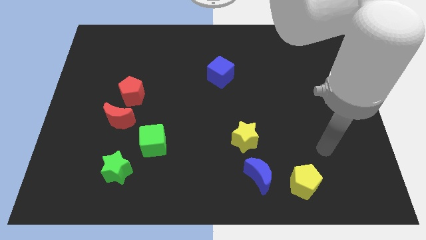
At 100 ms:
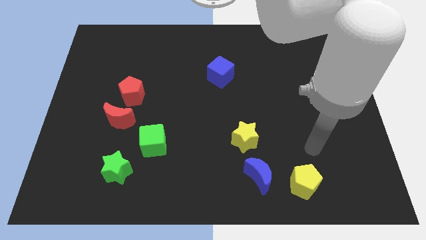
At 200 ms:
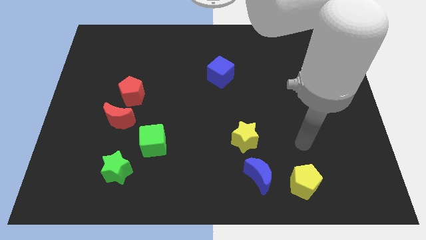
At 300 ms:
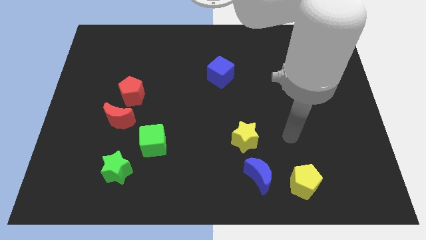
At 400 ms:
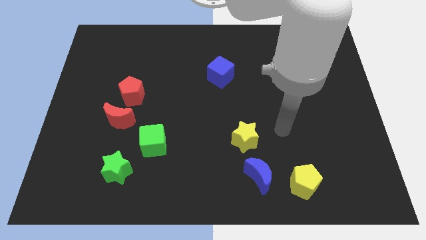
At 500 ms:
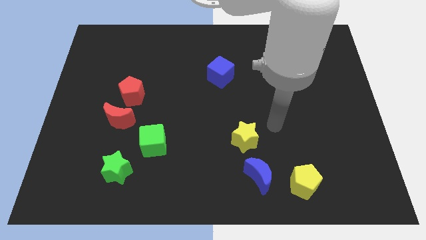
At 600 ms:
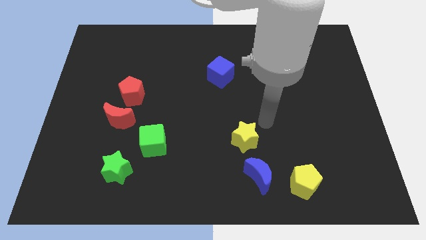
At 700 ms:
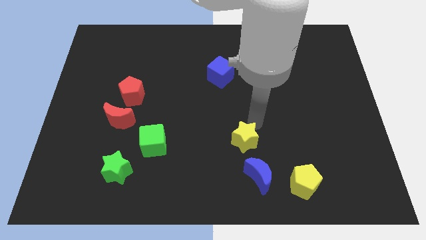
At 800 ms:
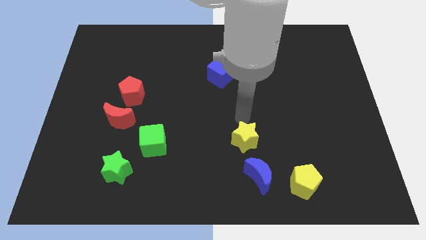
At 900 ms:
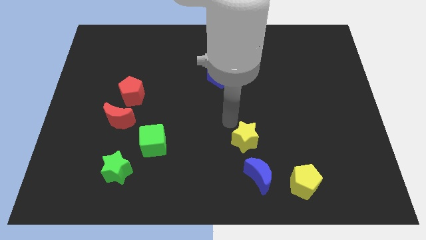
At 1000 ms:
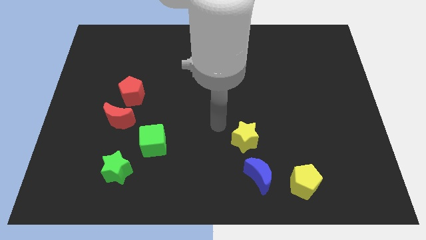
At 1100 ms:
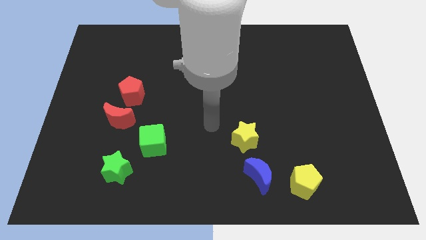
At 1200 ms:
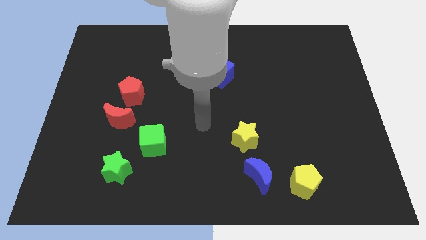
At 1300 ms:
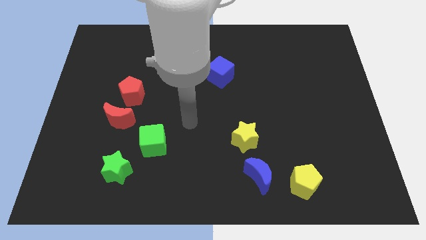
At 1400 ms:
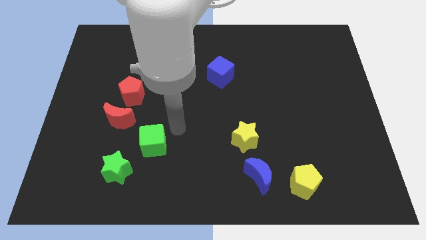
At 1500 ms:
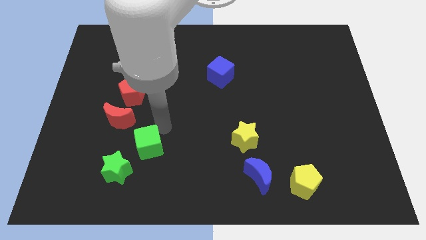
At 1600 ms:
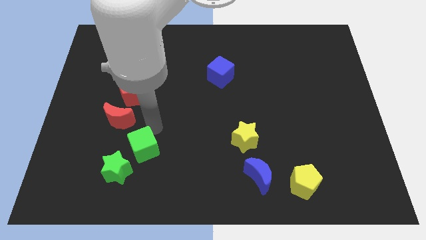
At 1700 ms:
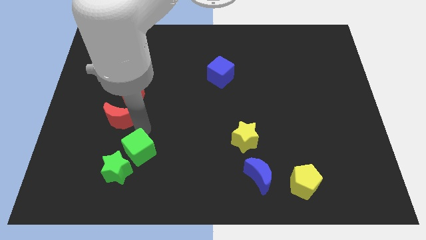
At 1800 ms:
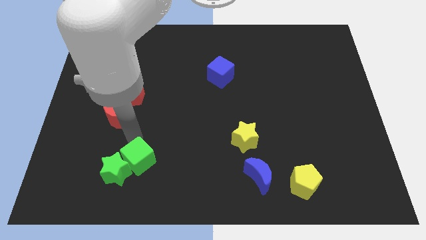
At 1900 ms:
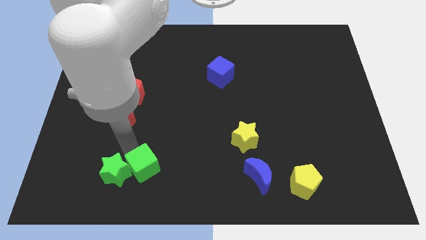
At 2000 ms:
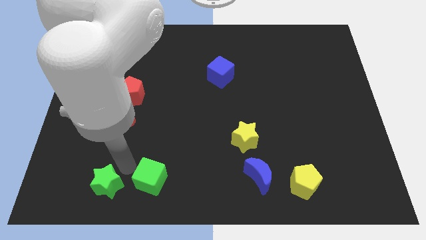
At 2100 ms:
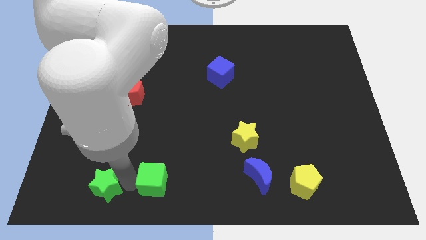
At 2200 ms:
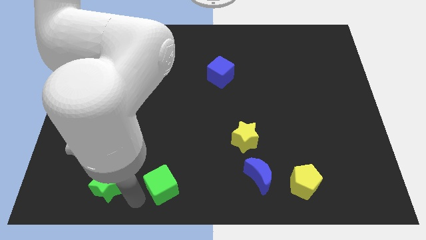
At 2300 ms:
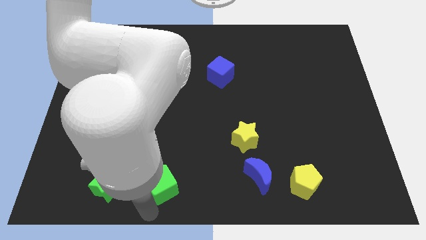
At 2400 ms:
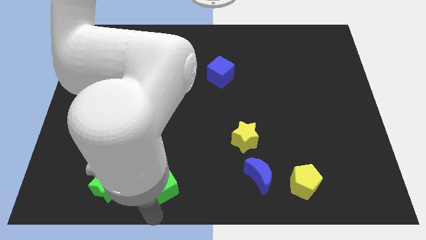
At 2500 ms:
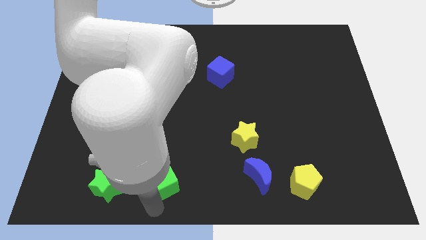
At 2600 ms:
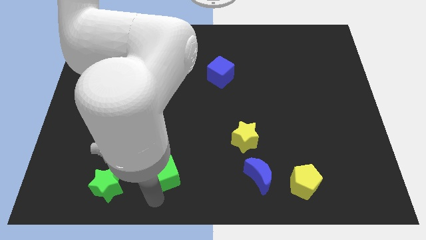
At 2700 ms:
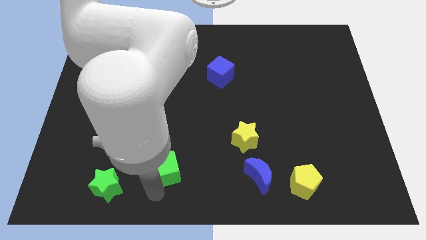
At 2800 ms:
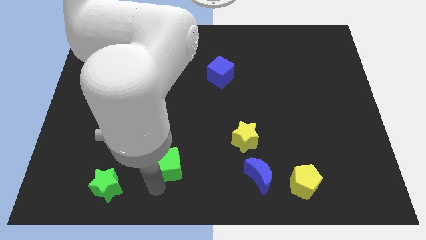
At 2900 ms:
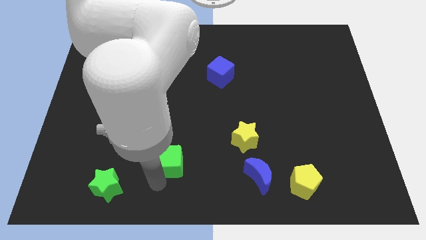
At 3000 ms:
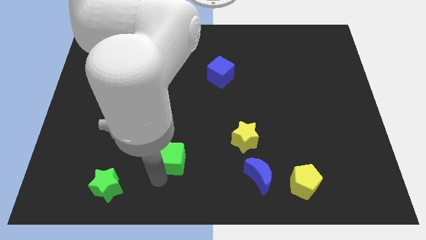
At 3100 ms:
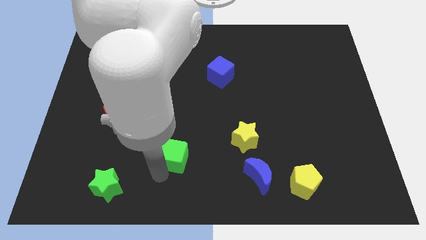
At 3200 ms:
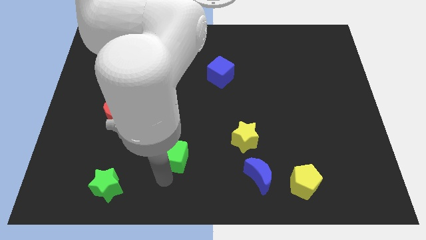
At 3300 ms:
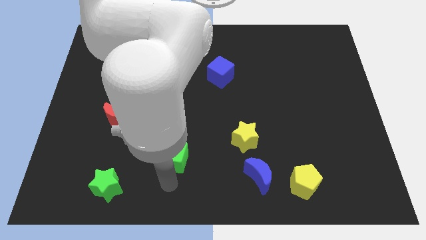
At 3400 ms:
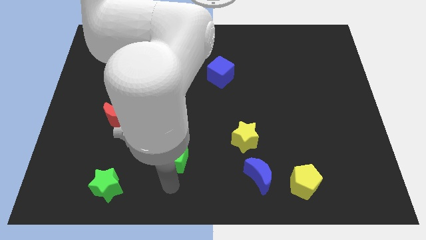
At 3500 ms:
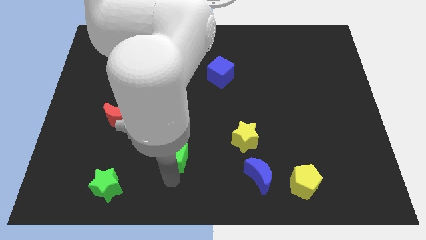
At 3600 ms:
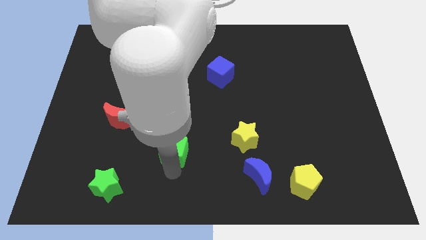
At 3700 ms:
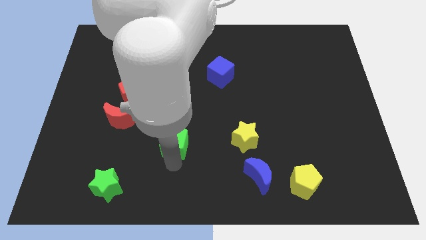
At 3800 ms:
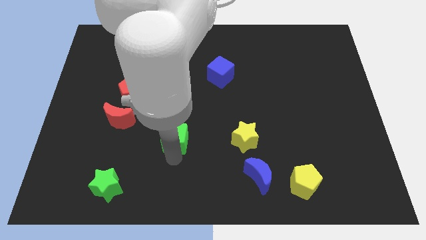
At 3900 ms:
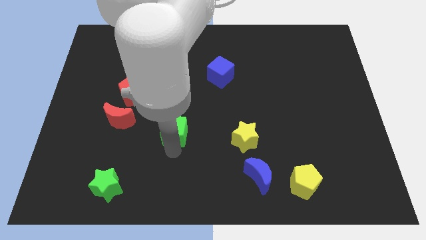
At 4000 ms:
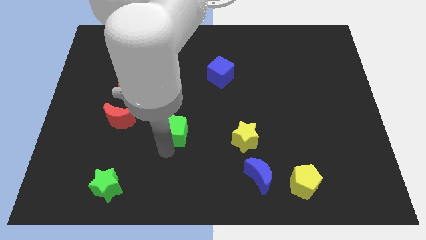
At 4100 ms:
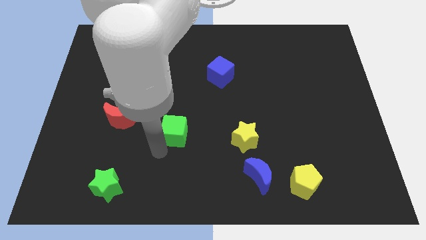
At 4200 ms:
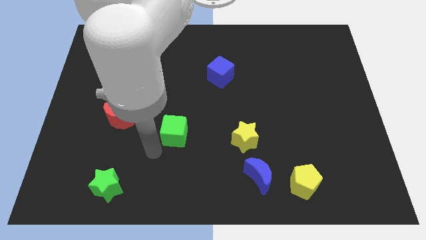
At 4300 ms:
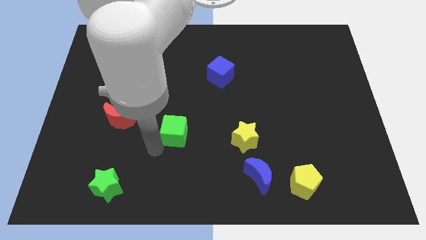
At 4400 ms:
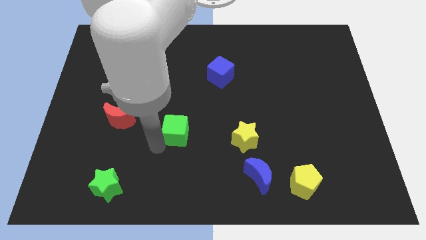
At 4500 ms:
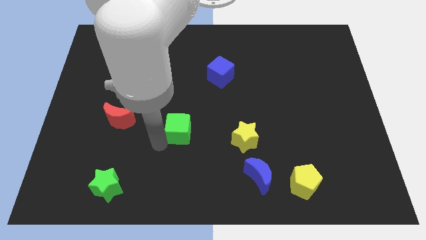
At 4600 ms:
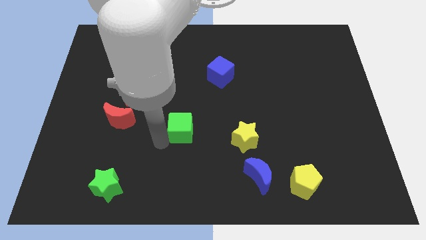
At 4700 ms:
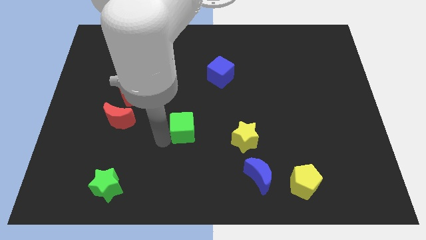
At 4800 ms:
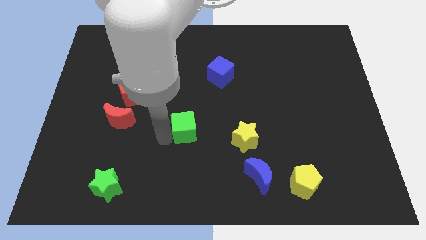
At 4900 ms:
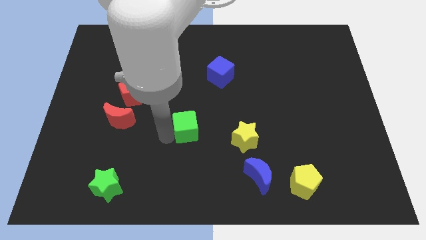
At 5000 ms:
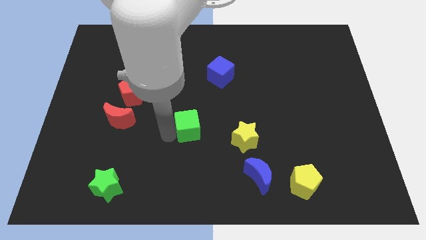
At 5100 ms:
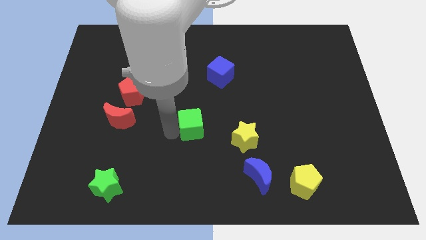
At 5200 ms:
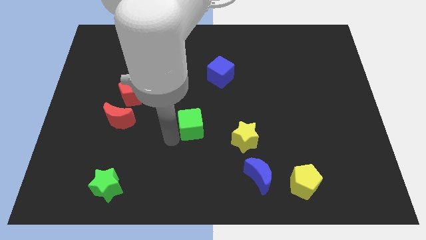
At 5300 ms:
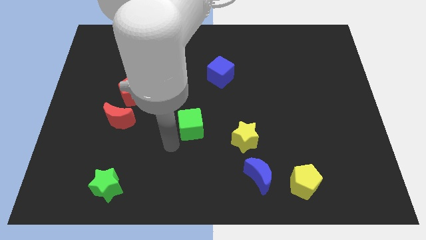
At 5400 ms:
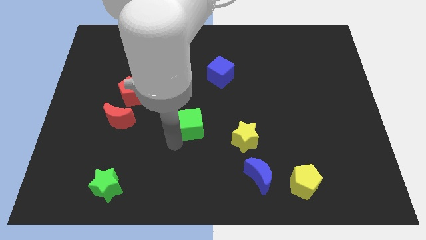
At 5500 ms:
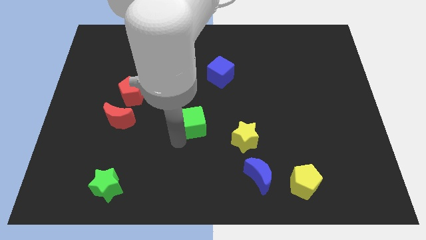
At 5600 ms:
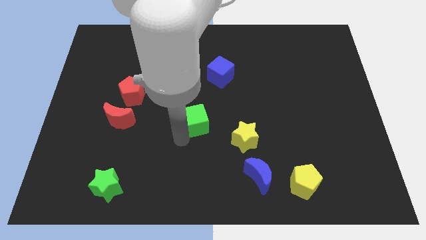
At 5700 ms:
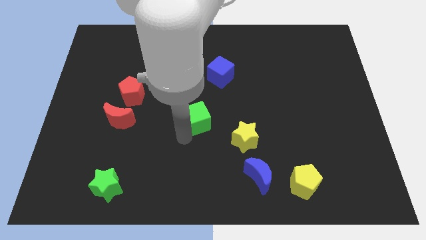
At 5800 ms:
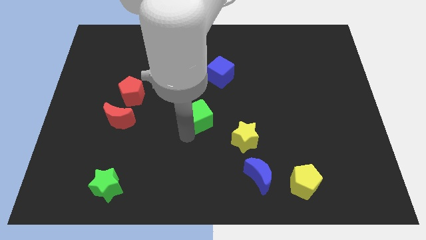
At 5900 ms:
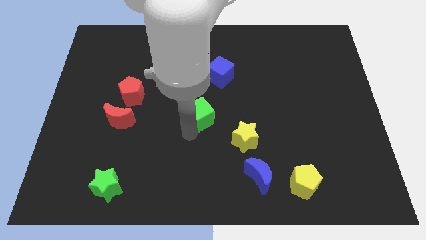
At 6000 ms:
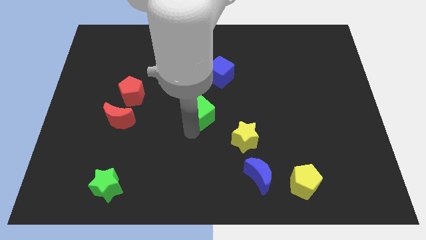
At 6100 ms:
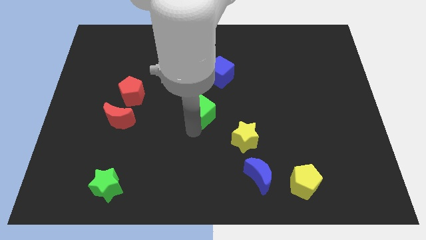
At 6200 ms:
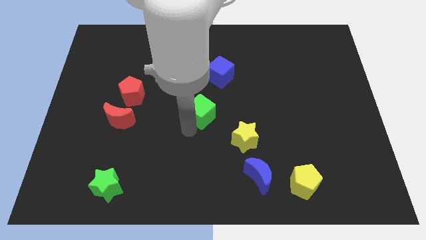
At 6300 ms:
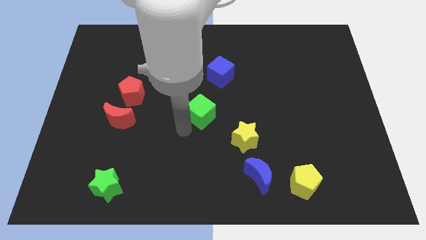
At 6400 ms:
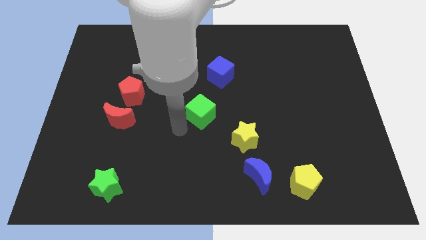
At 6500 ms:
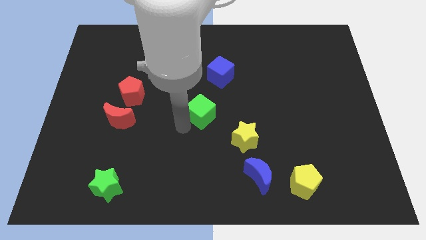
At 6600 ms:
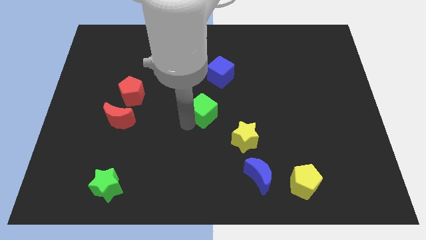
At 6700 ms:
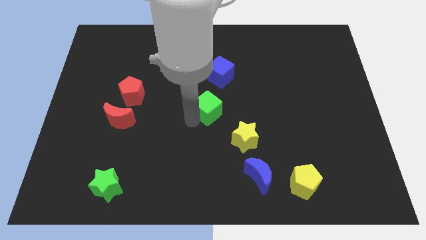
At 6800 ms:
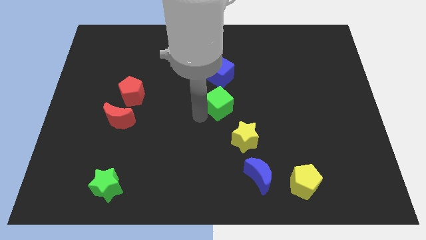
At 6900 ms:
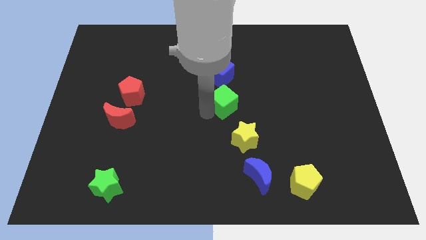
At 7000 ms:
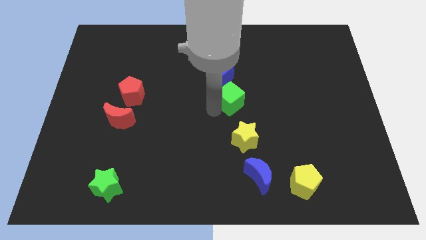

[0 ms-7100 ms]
push the green cube upwards and then right

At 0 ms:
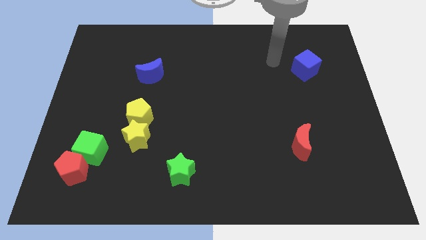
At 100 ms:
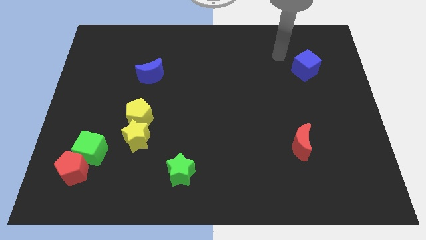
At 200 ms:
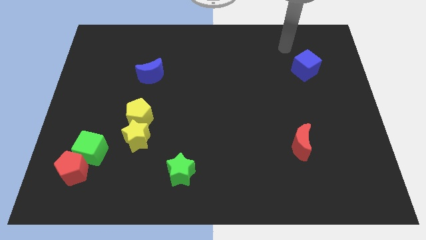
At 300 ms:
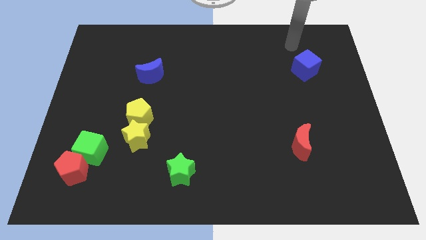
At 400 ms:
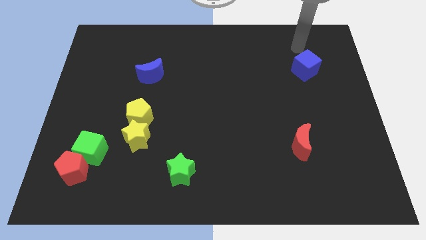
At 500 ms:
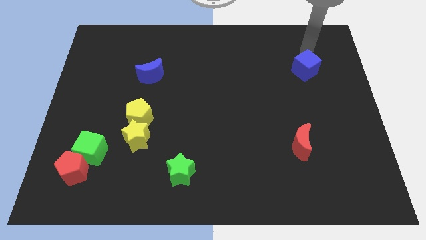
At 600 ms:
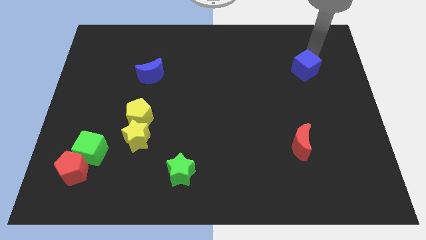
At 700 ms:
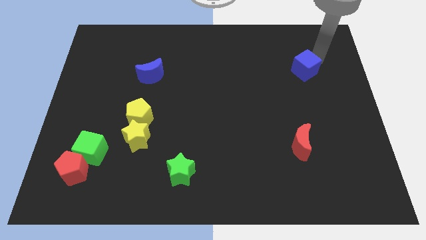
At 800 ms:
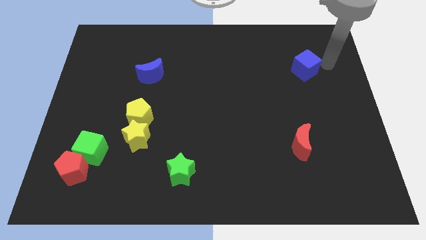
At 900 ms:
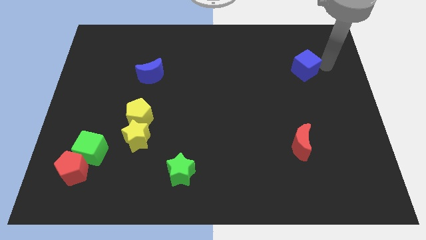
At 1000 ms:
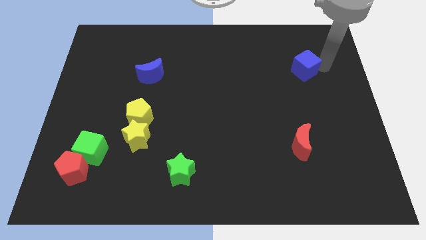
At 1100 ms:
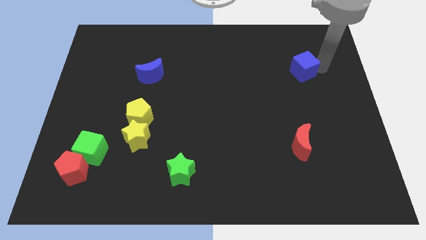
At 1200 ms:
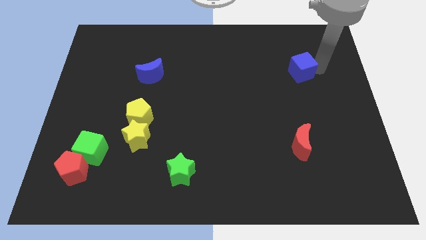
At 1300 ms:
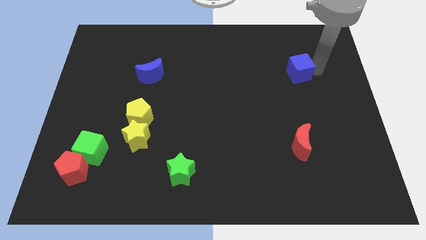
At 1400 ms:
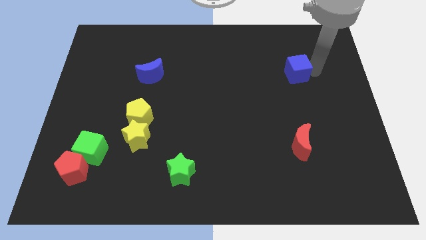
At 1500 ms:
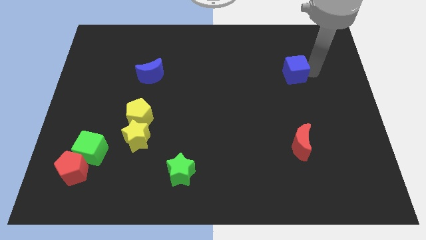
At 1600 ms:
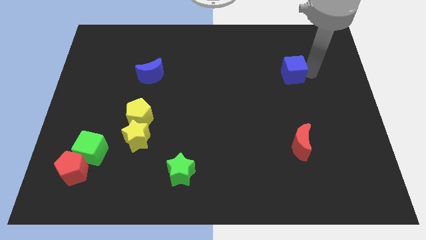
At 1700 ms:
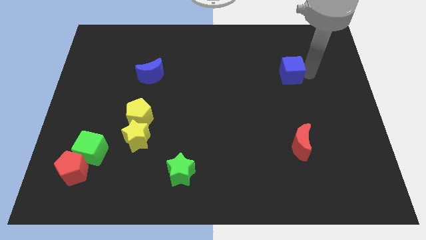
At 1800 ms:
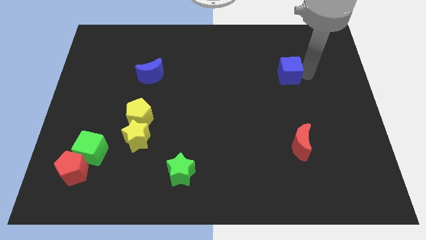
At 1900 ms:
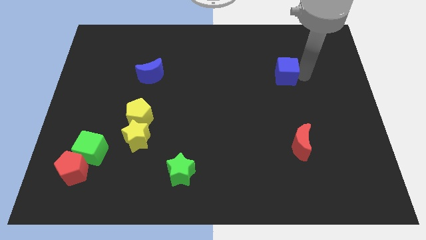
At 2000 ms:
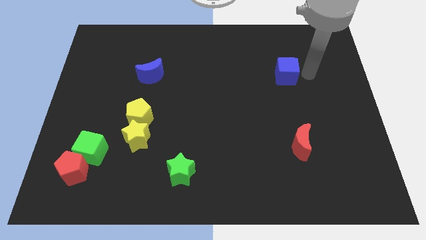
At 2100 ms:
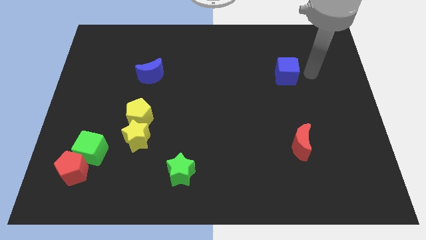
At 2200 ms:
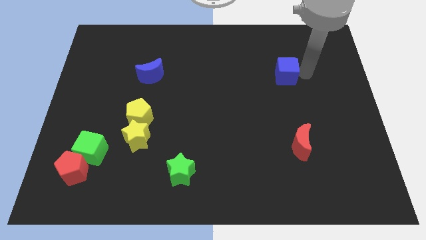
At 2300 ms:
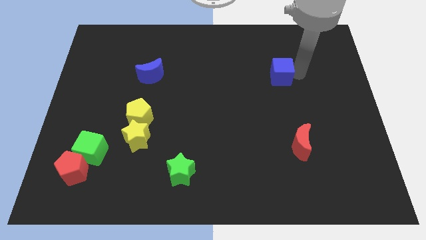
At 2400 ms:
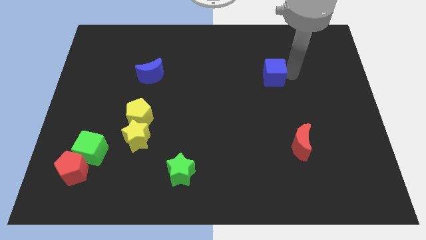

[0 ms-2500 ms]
move the blue cube a little bit to the left
